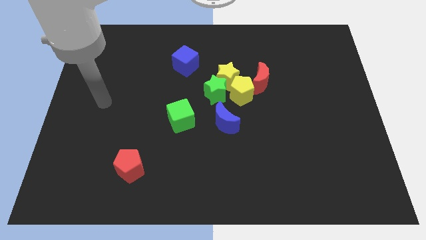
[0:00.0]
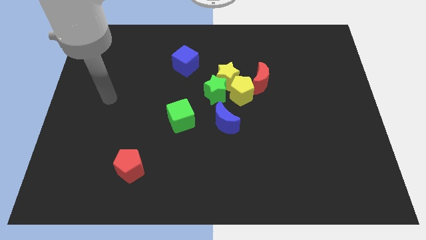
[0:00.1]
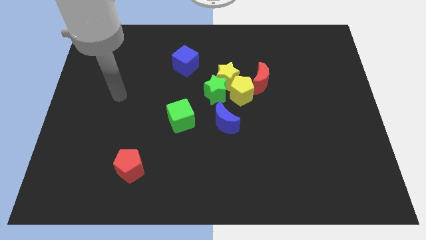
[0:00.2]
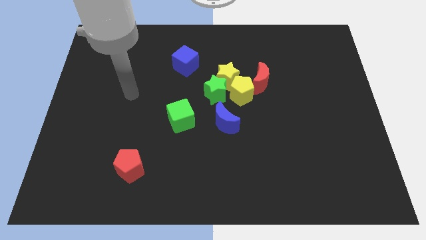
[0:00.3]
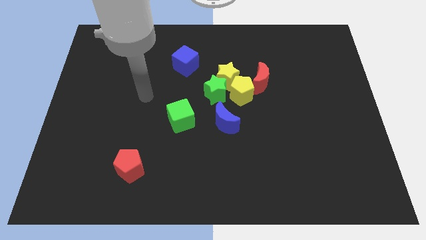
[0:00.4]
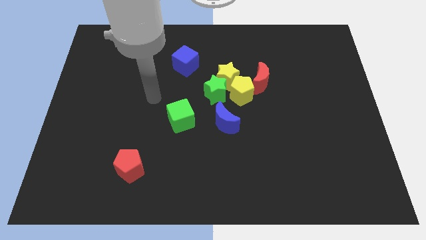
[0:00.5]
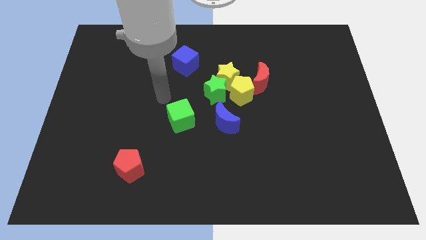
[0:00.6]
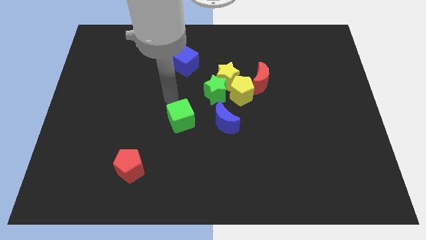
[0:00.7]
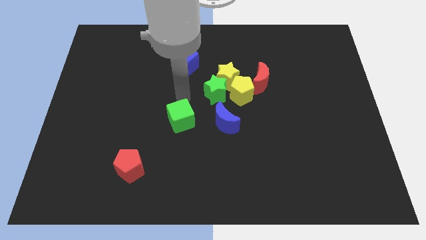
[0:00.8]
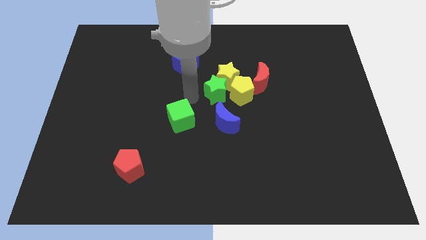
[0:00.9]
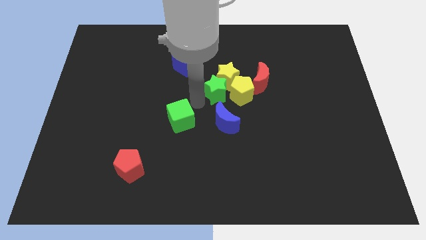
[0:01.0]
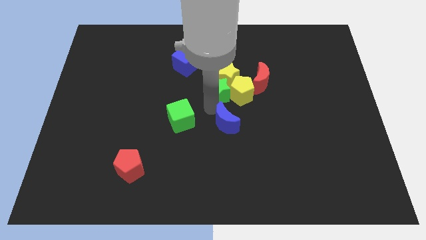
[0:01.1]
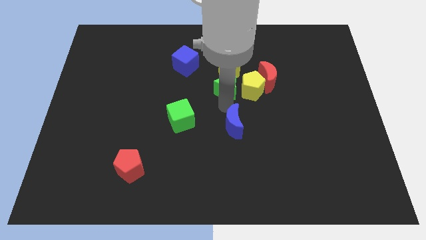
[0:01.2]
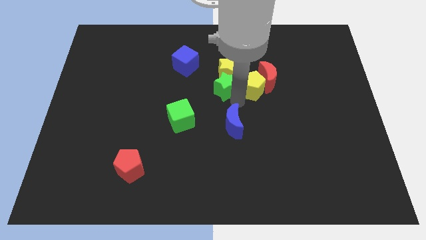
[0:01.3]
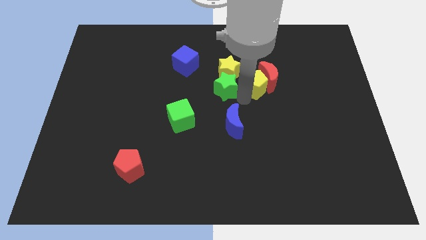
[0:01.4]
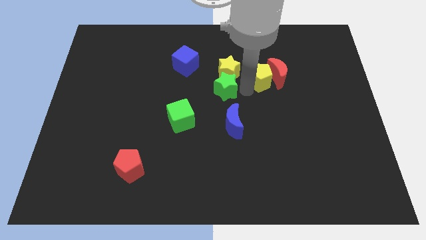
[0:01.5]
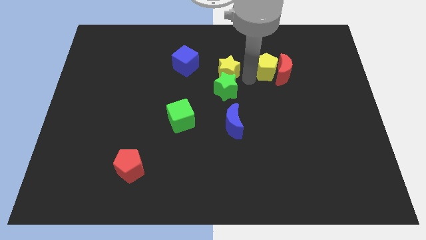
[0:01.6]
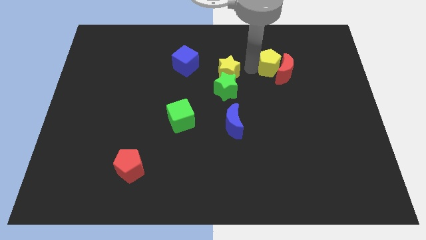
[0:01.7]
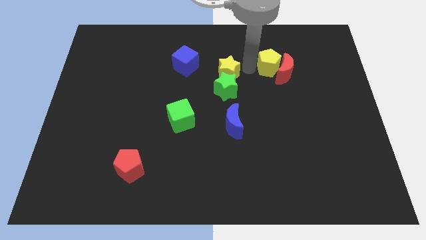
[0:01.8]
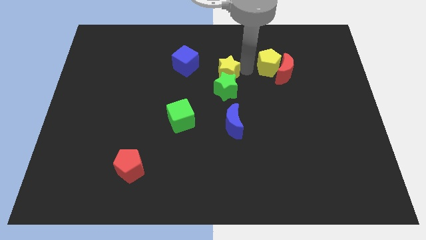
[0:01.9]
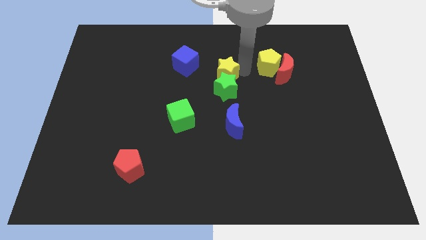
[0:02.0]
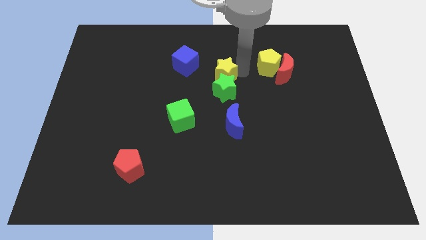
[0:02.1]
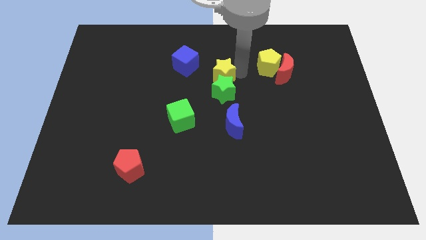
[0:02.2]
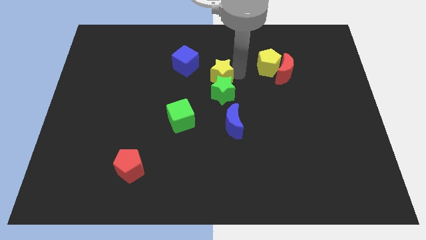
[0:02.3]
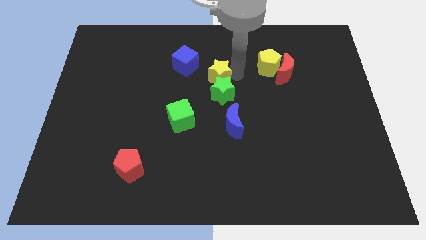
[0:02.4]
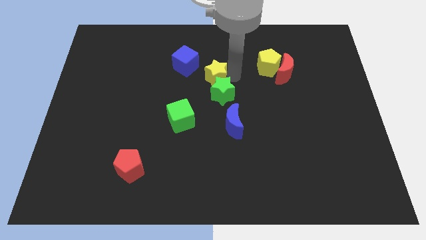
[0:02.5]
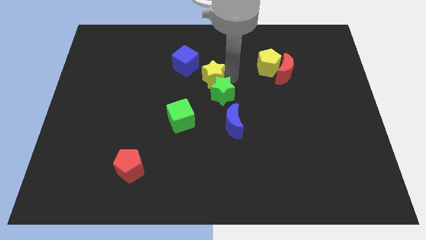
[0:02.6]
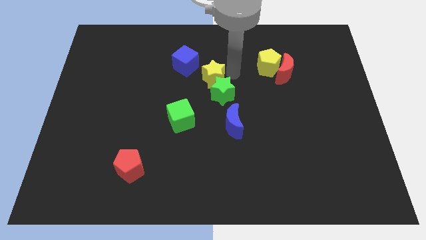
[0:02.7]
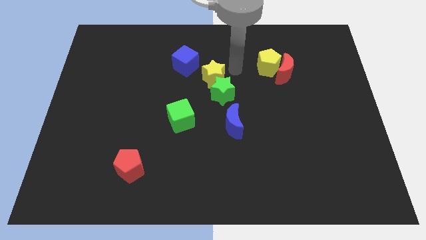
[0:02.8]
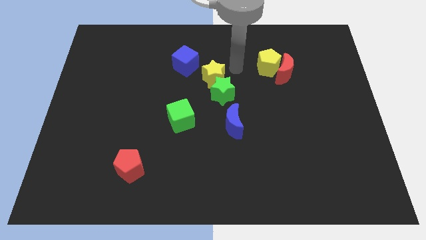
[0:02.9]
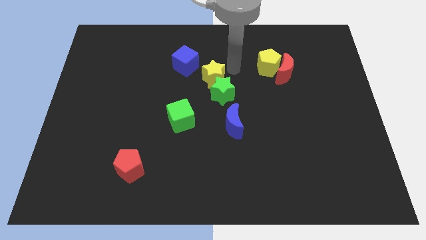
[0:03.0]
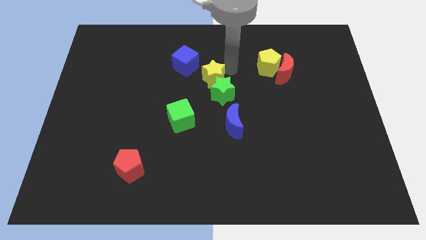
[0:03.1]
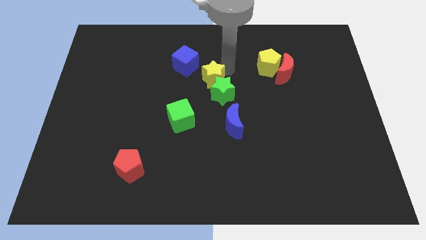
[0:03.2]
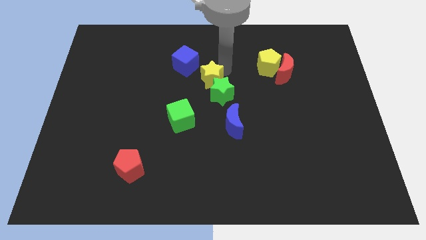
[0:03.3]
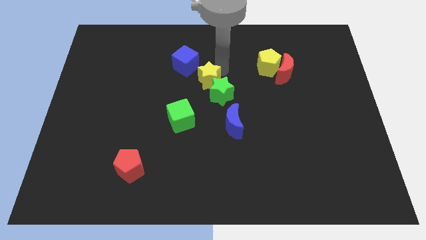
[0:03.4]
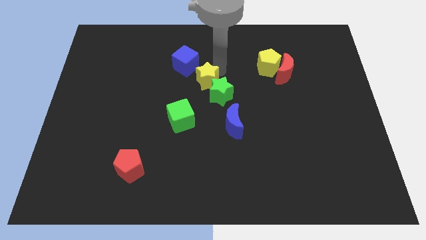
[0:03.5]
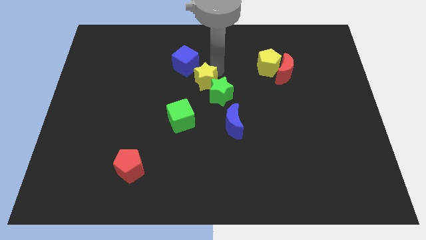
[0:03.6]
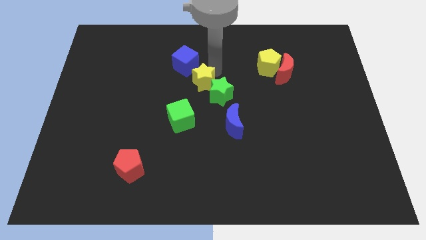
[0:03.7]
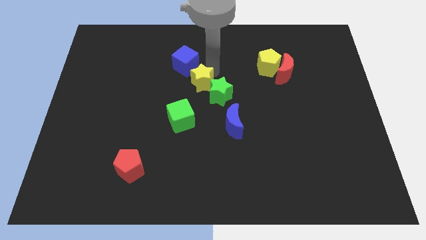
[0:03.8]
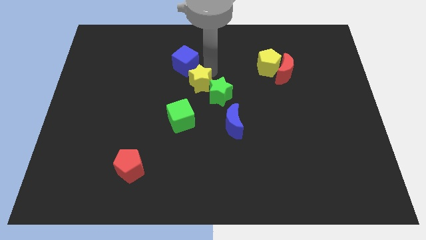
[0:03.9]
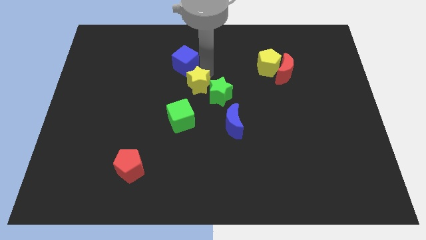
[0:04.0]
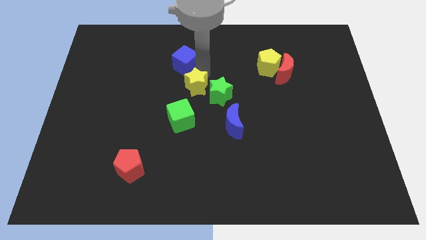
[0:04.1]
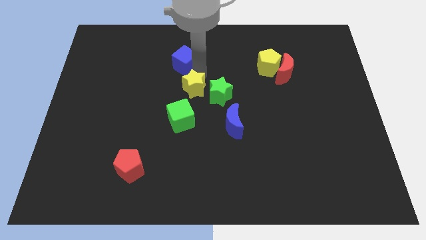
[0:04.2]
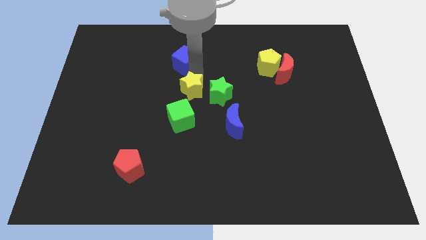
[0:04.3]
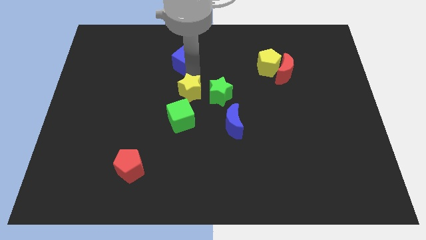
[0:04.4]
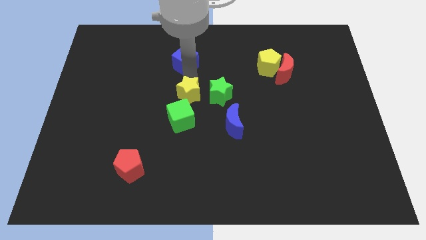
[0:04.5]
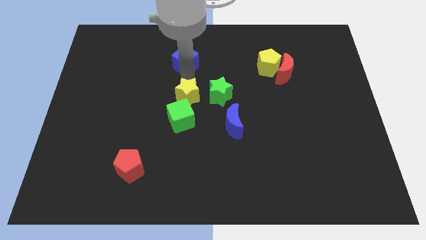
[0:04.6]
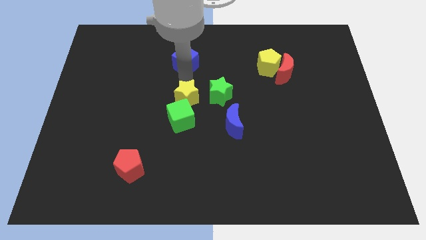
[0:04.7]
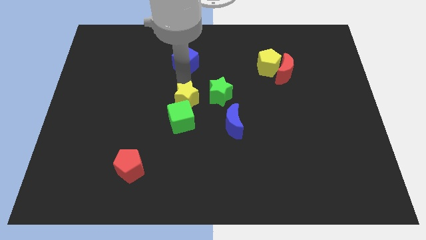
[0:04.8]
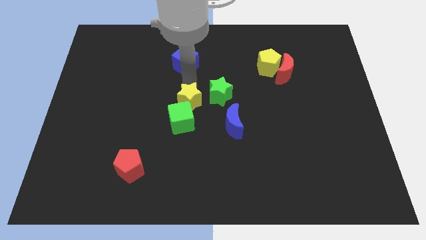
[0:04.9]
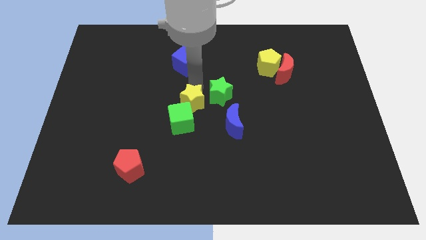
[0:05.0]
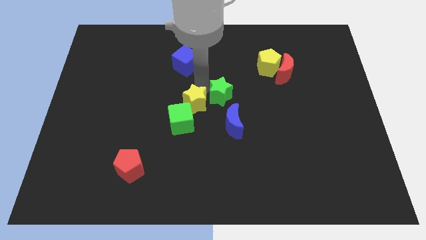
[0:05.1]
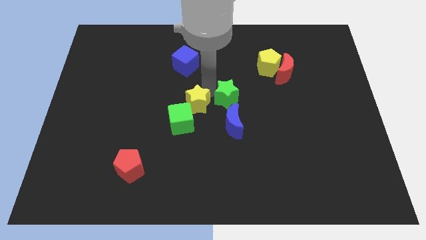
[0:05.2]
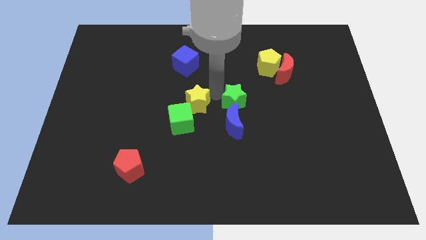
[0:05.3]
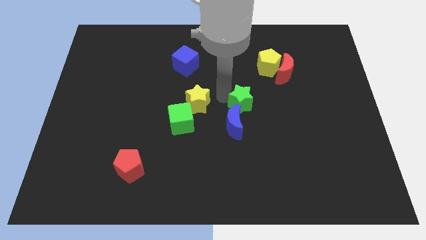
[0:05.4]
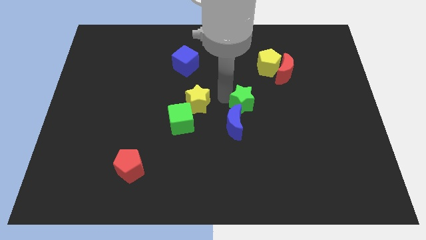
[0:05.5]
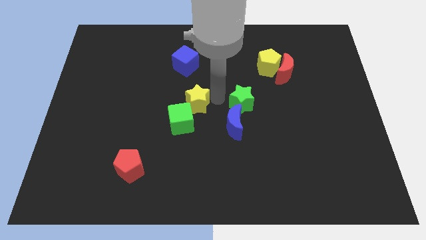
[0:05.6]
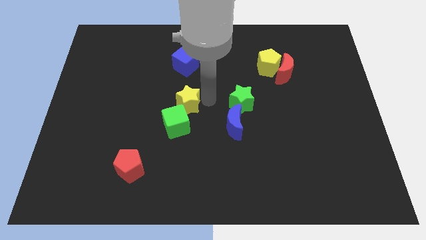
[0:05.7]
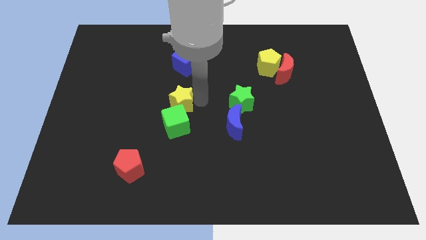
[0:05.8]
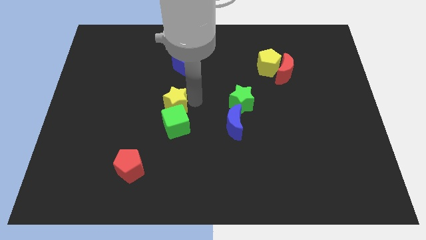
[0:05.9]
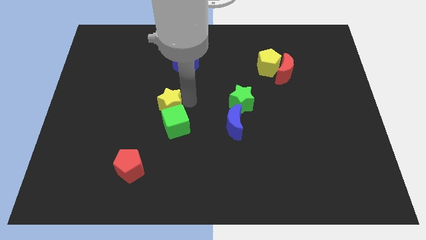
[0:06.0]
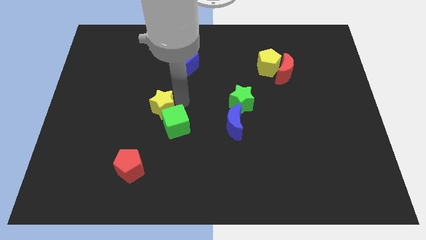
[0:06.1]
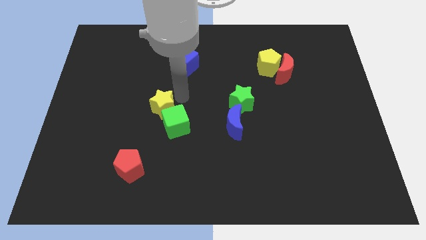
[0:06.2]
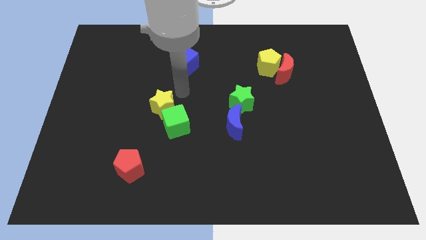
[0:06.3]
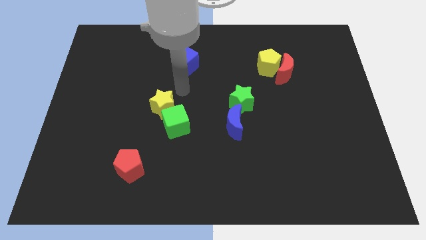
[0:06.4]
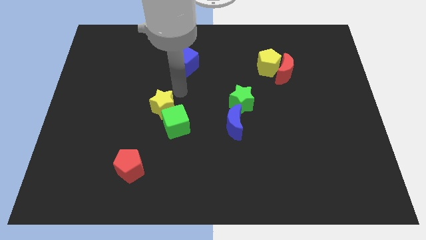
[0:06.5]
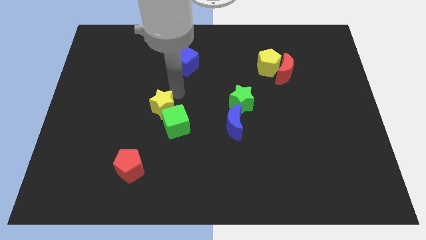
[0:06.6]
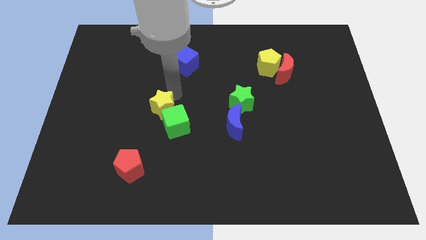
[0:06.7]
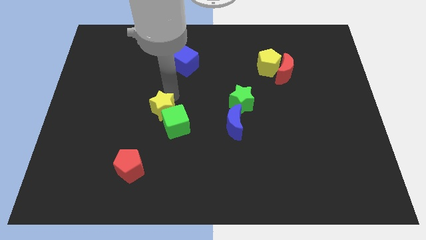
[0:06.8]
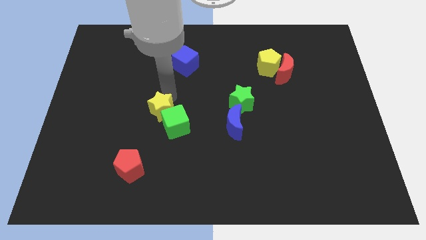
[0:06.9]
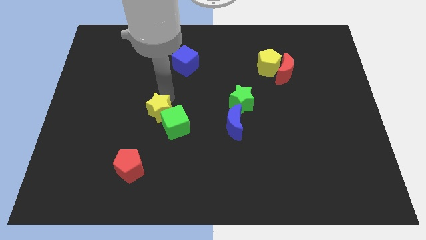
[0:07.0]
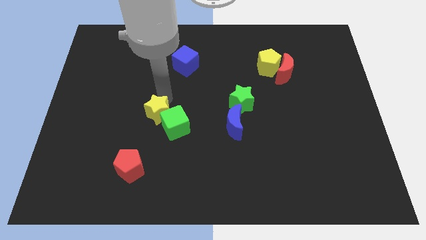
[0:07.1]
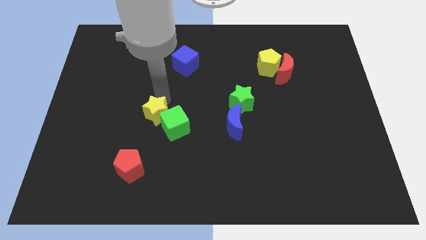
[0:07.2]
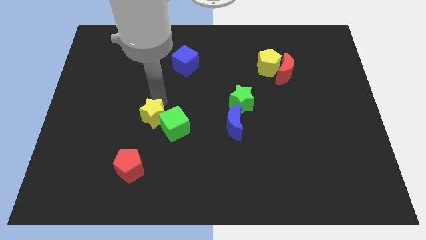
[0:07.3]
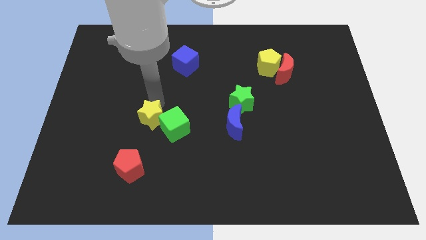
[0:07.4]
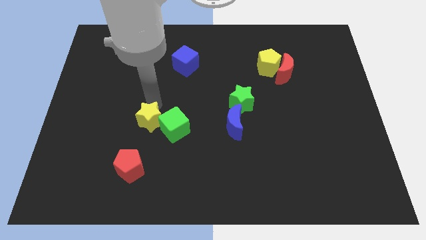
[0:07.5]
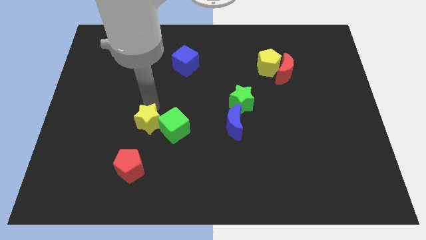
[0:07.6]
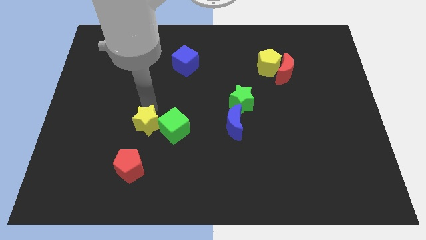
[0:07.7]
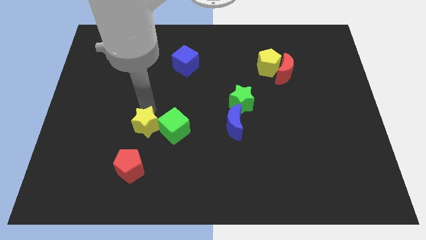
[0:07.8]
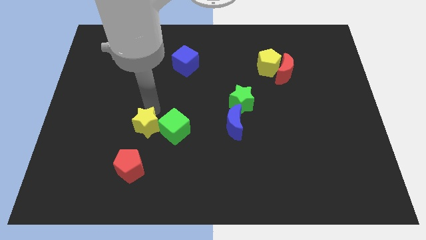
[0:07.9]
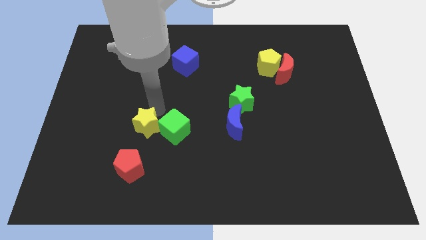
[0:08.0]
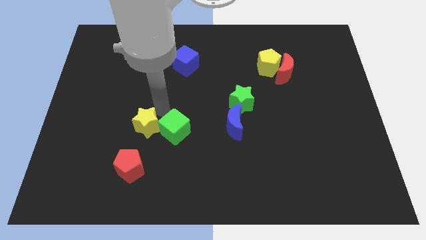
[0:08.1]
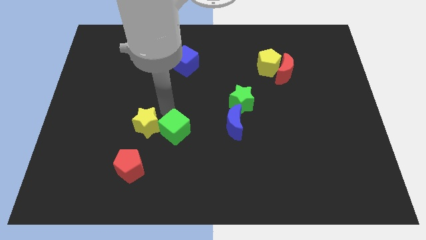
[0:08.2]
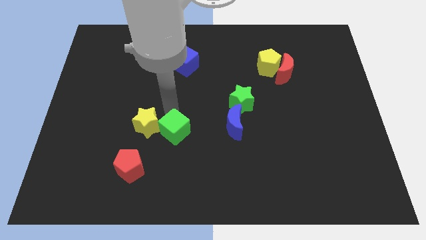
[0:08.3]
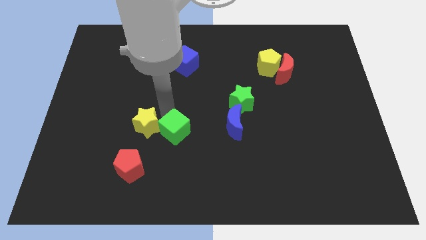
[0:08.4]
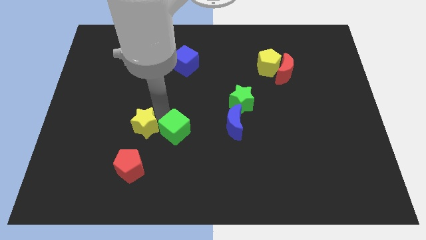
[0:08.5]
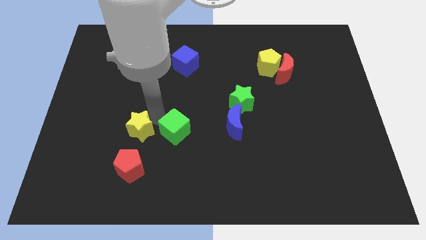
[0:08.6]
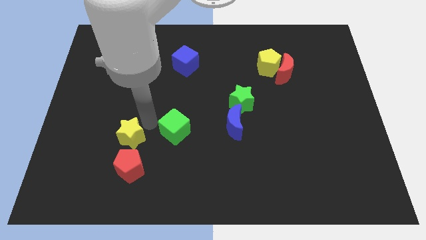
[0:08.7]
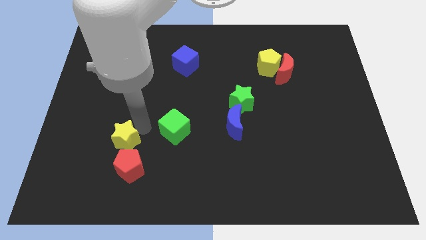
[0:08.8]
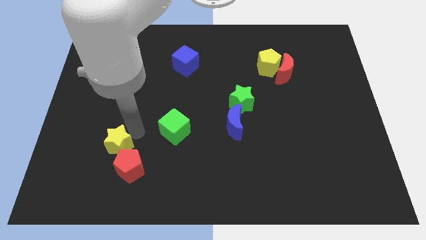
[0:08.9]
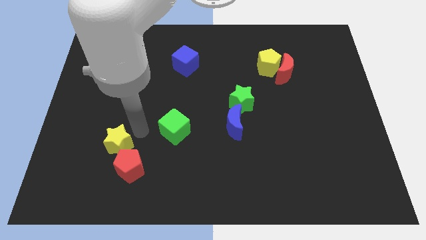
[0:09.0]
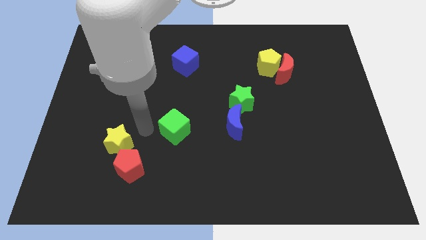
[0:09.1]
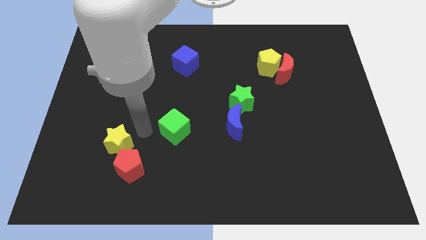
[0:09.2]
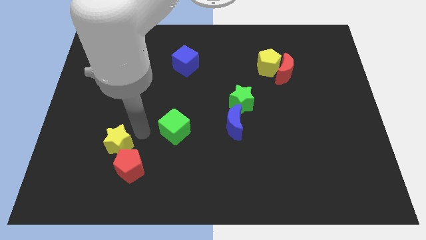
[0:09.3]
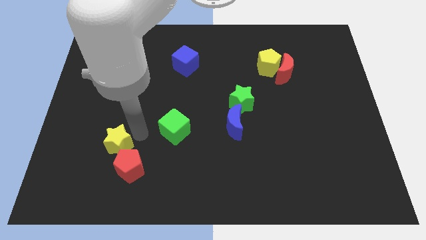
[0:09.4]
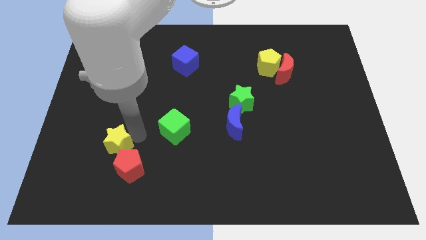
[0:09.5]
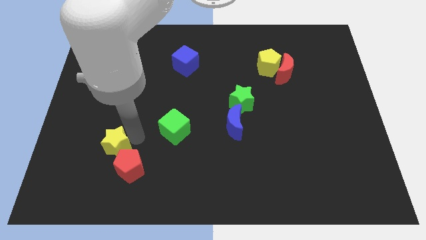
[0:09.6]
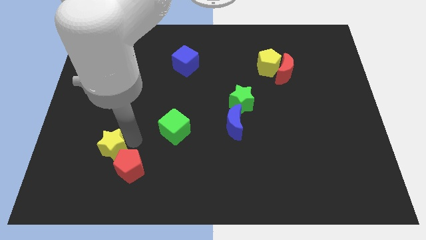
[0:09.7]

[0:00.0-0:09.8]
push the yellow star to the left side of the red pentagon
